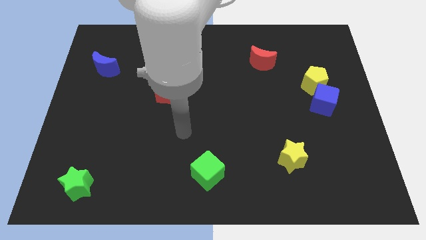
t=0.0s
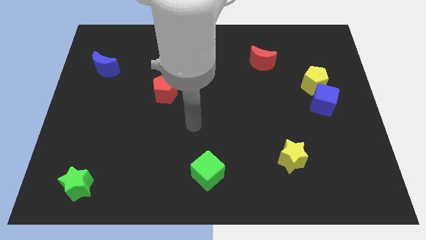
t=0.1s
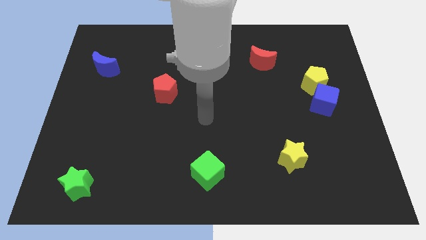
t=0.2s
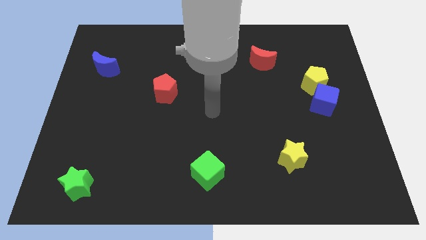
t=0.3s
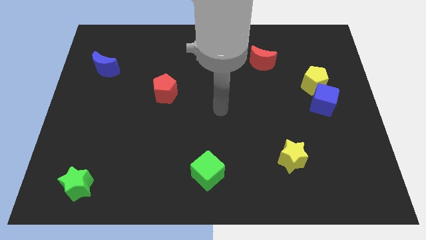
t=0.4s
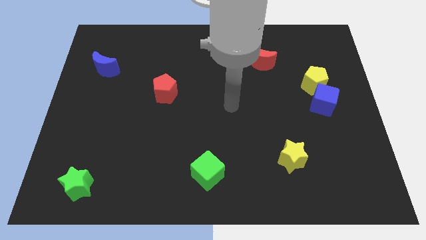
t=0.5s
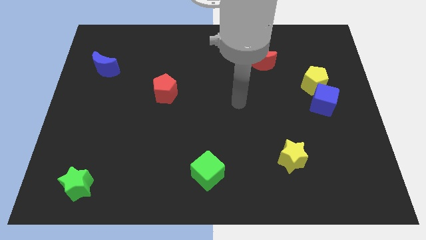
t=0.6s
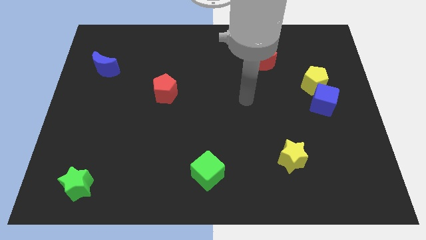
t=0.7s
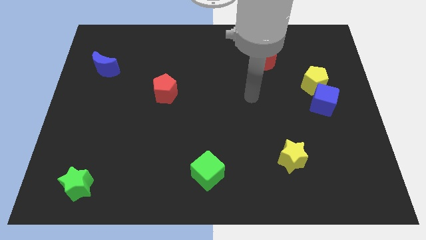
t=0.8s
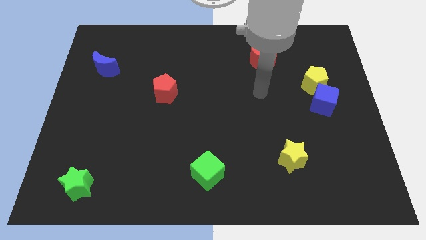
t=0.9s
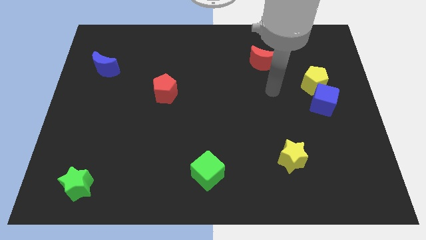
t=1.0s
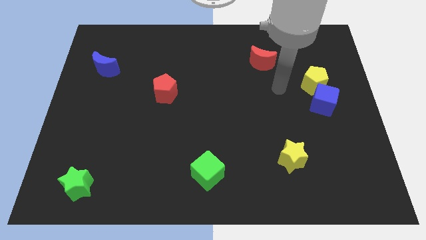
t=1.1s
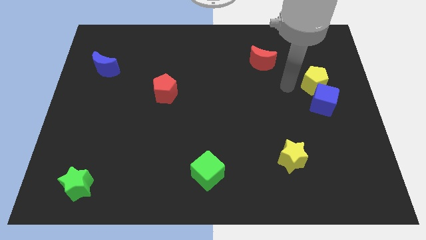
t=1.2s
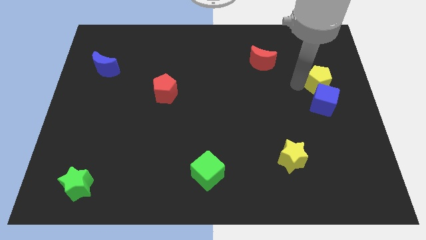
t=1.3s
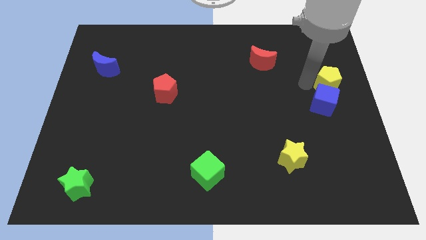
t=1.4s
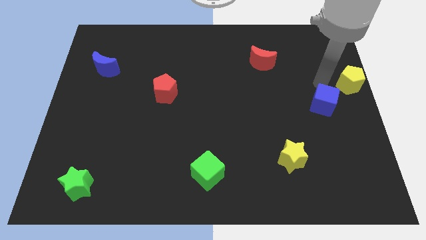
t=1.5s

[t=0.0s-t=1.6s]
pull the blue cube apart from the yellow pentagon

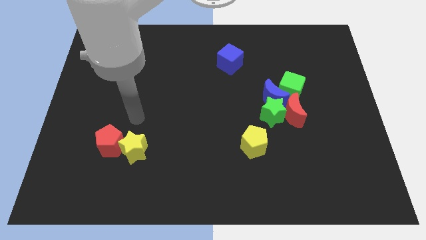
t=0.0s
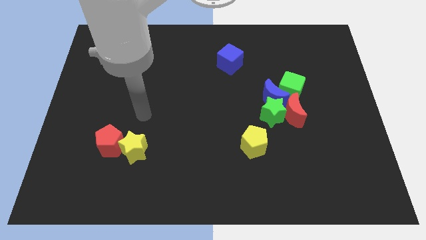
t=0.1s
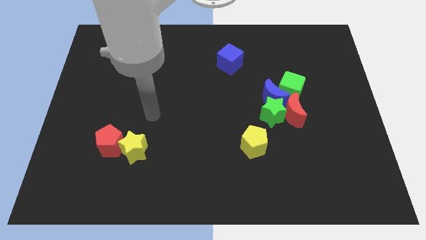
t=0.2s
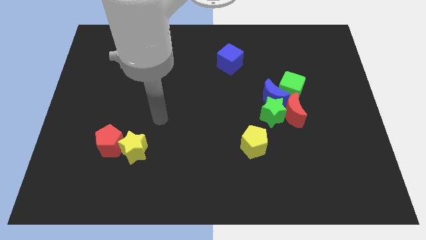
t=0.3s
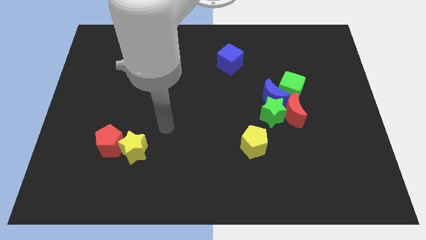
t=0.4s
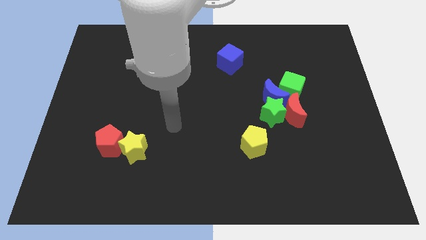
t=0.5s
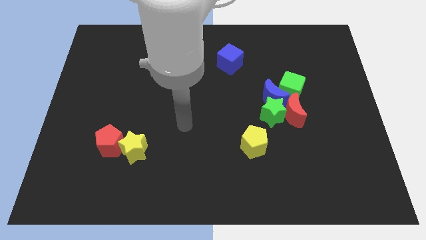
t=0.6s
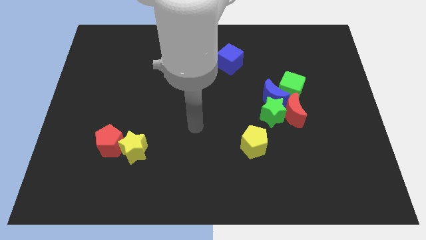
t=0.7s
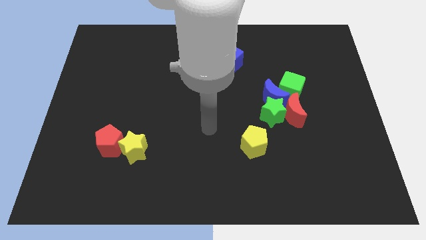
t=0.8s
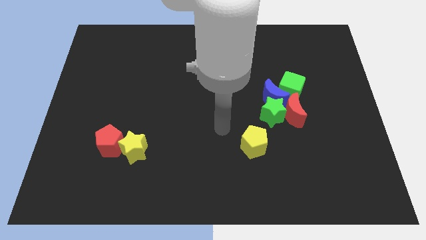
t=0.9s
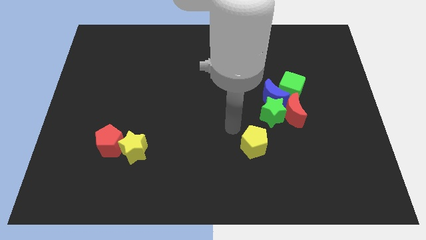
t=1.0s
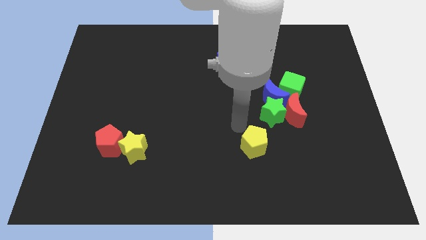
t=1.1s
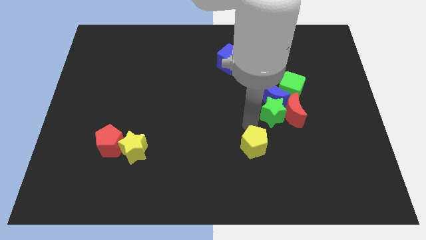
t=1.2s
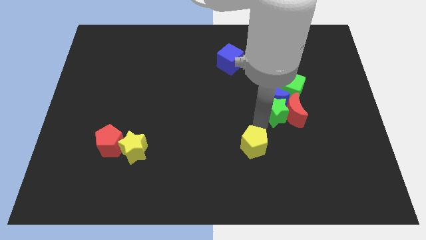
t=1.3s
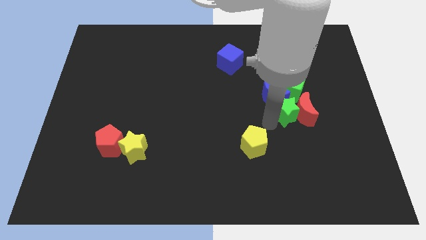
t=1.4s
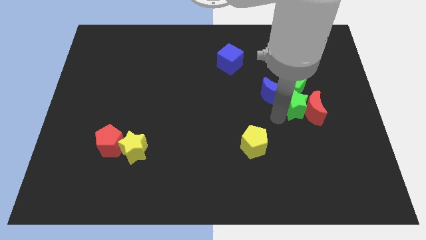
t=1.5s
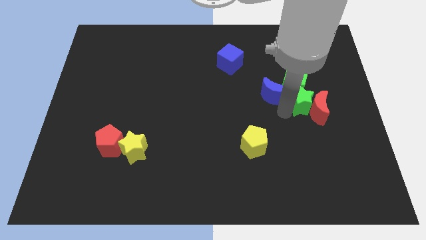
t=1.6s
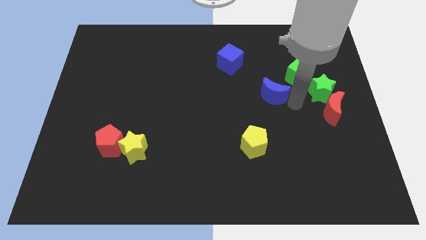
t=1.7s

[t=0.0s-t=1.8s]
separate the blue moon from the green star, green cube, and red moon

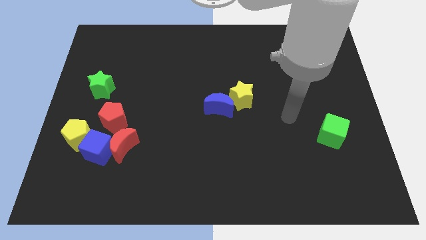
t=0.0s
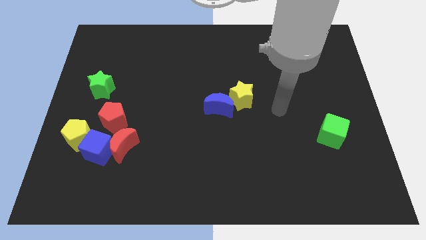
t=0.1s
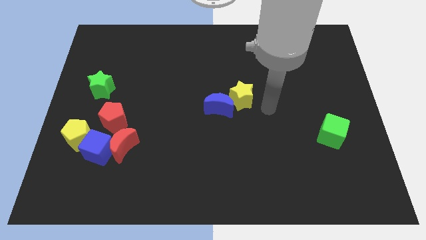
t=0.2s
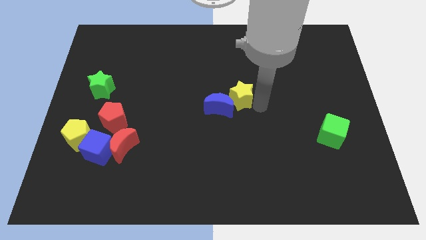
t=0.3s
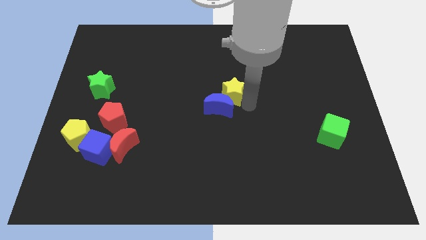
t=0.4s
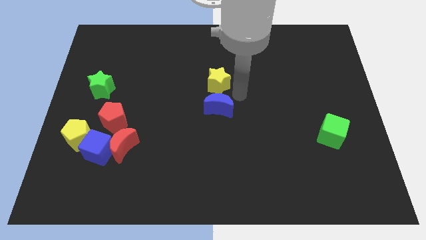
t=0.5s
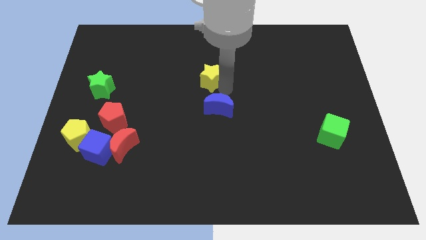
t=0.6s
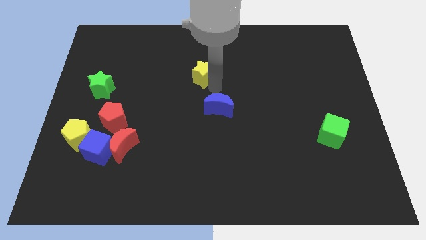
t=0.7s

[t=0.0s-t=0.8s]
move the blue moon away from the yellow star

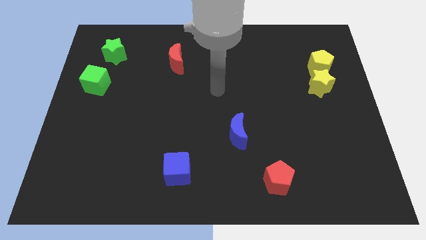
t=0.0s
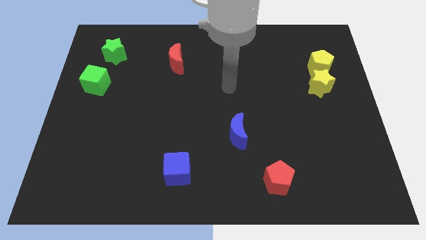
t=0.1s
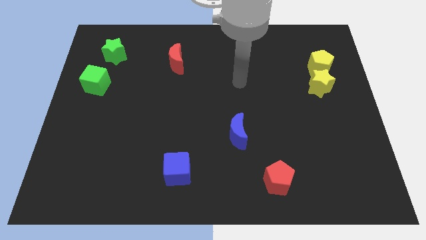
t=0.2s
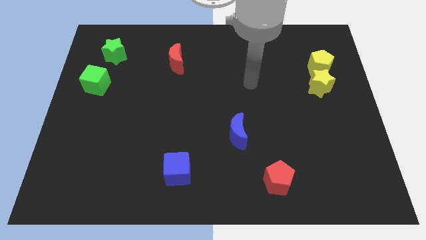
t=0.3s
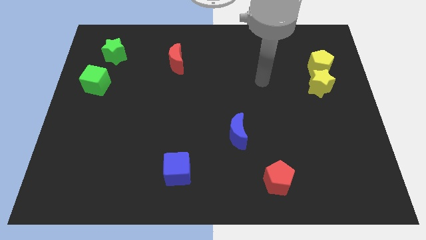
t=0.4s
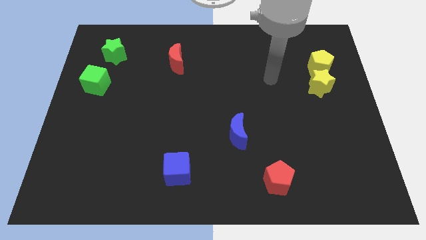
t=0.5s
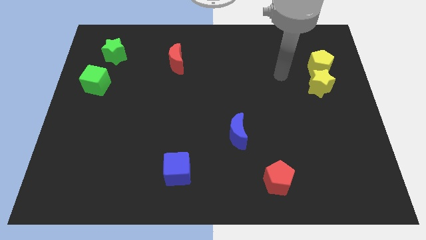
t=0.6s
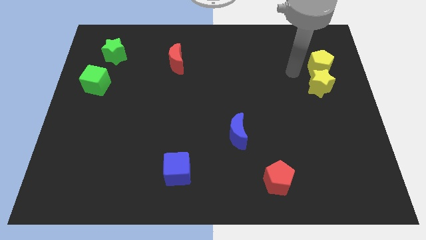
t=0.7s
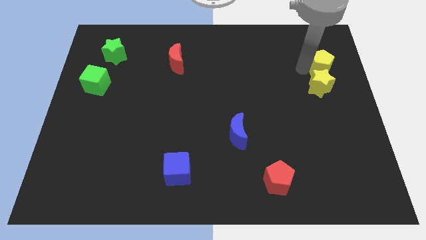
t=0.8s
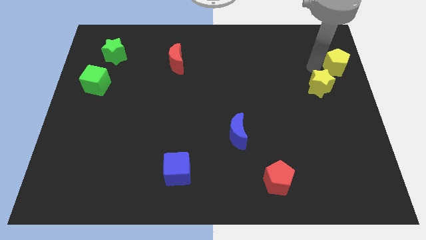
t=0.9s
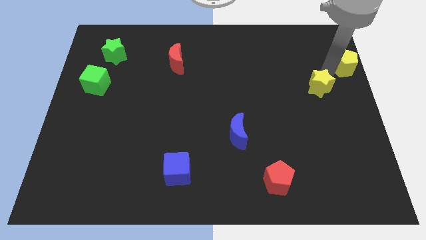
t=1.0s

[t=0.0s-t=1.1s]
separate the yellow star from the yellow pentagon

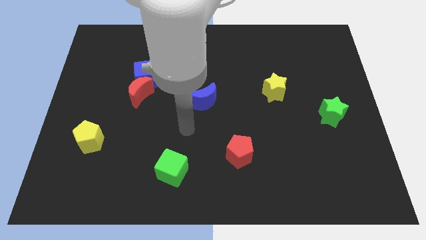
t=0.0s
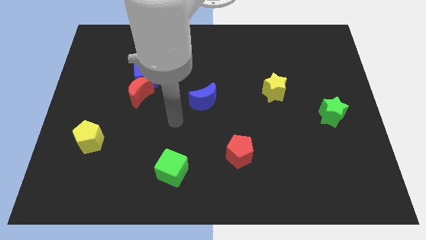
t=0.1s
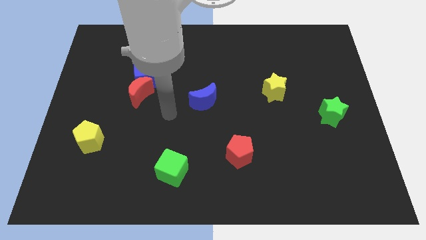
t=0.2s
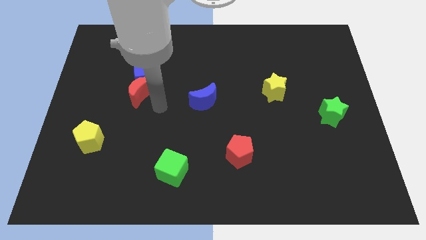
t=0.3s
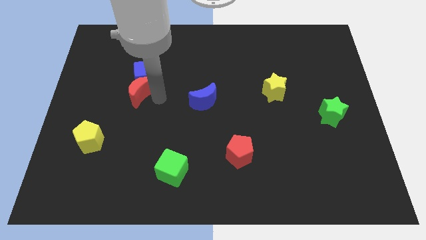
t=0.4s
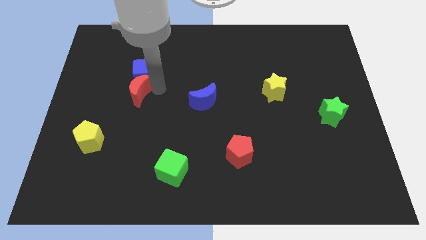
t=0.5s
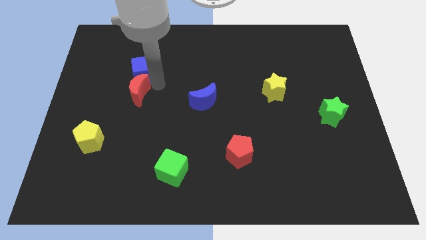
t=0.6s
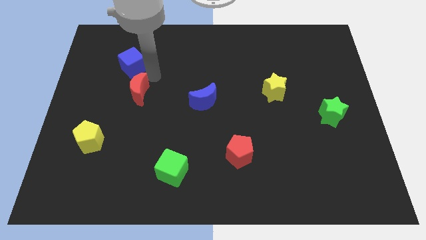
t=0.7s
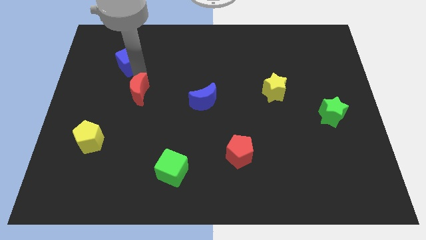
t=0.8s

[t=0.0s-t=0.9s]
separate the red moon from the blue cube

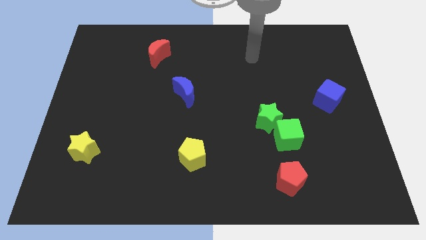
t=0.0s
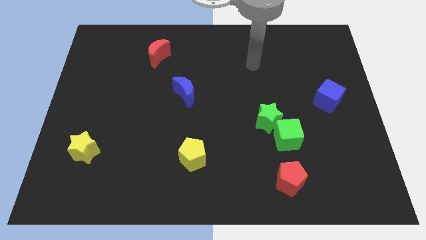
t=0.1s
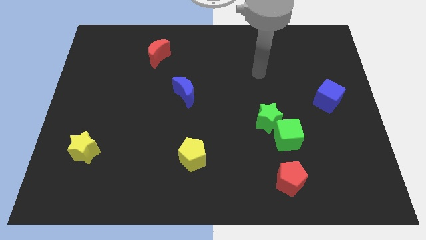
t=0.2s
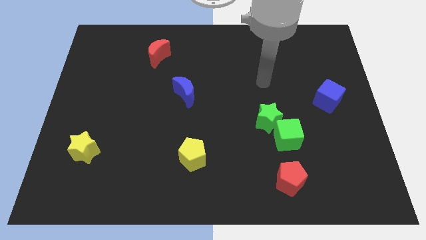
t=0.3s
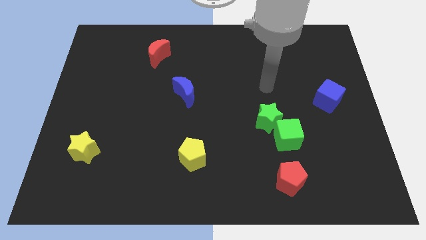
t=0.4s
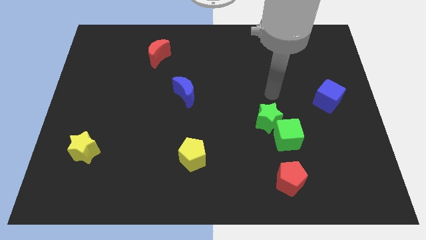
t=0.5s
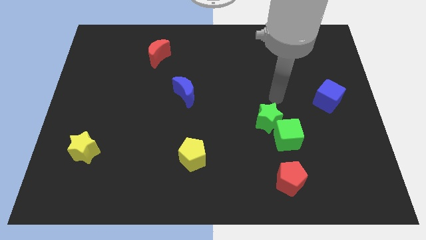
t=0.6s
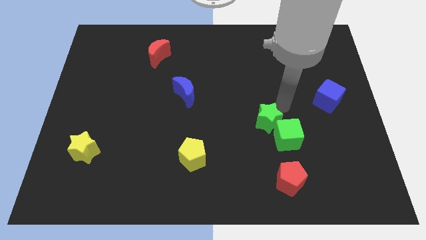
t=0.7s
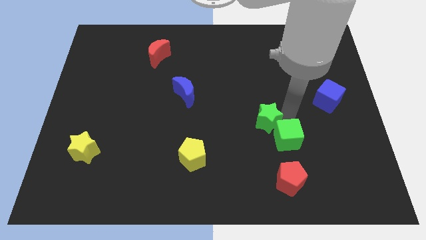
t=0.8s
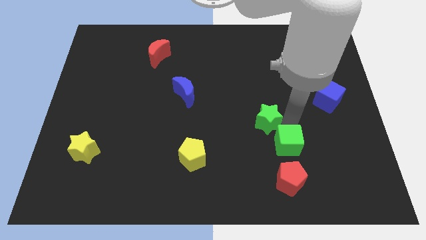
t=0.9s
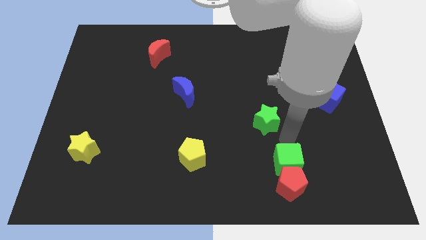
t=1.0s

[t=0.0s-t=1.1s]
separate the green star from the green cube

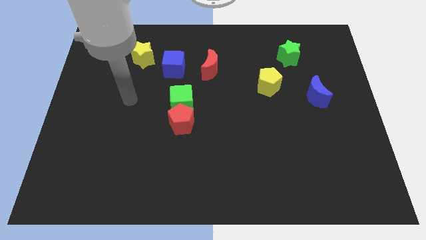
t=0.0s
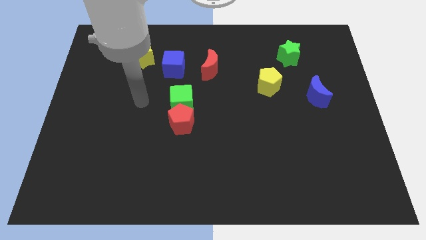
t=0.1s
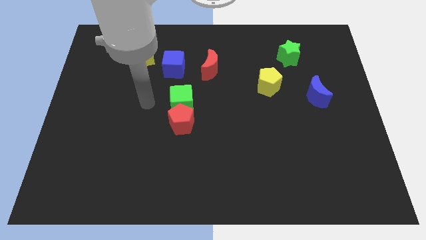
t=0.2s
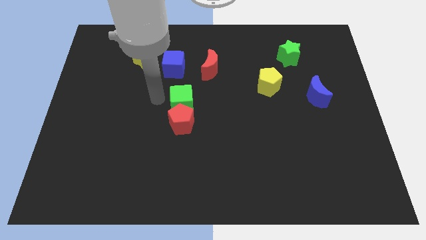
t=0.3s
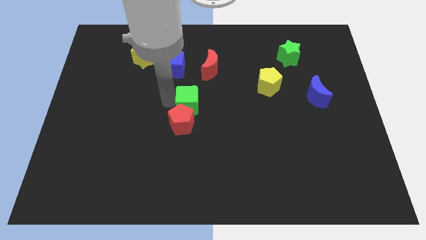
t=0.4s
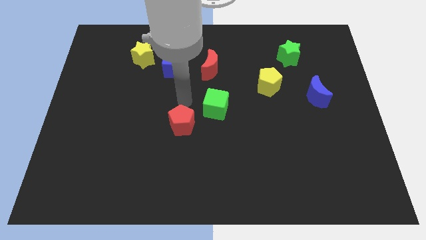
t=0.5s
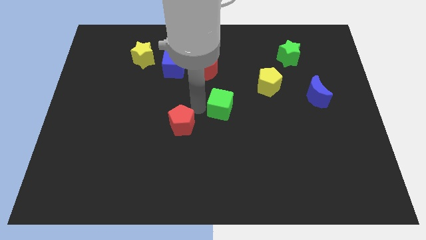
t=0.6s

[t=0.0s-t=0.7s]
move the red pentagon away from the green cube

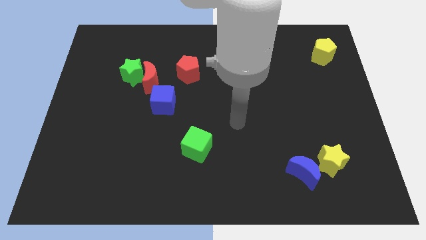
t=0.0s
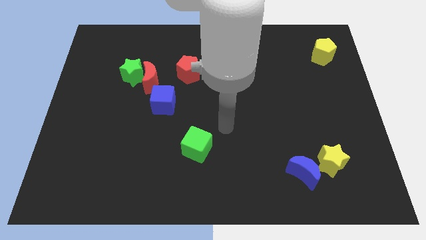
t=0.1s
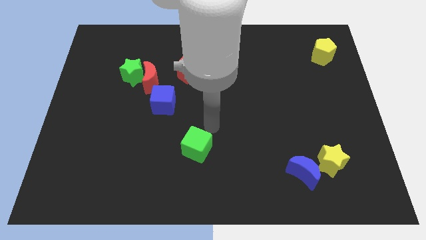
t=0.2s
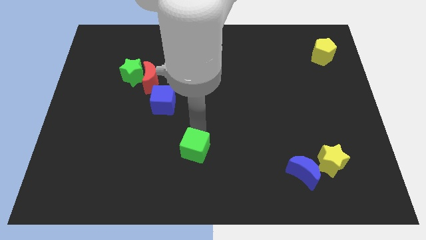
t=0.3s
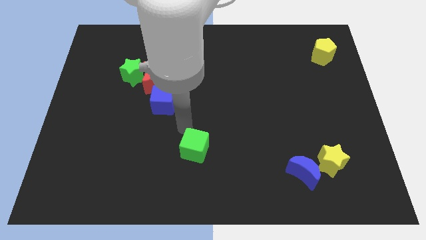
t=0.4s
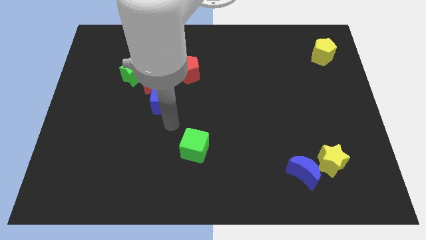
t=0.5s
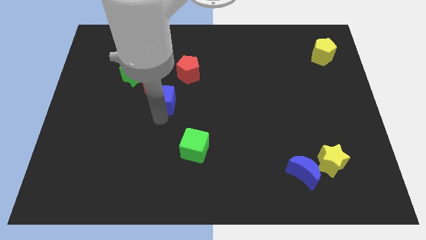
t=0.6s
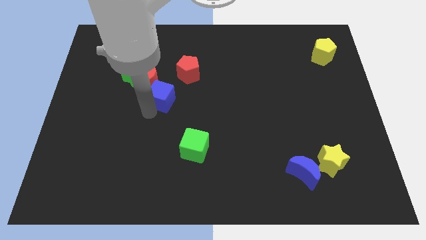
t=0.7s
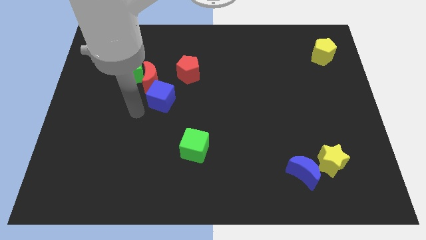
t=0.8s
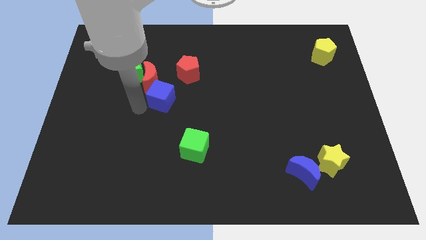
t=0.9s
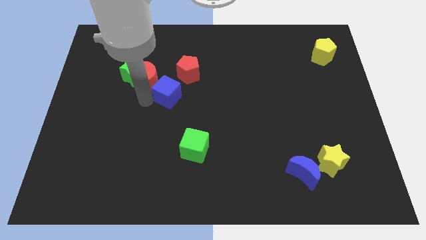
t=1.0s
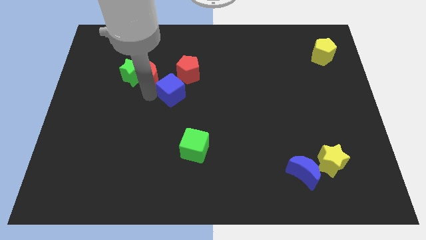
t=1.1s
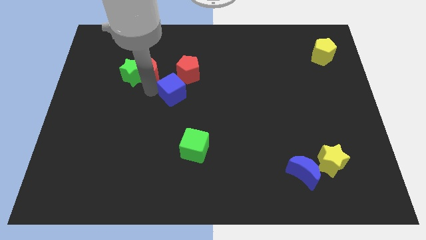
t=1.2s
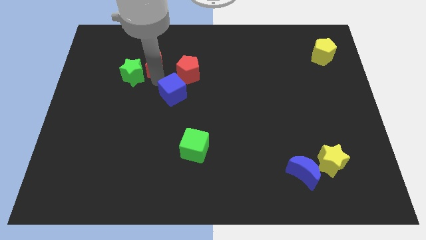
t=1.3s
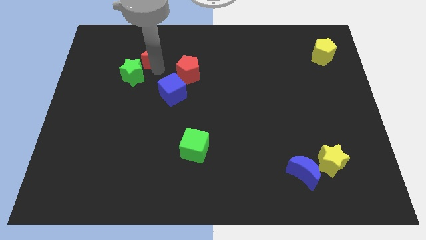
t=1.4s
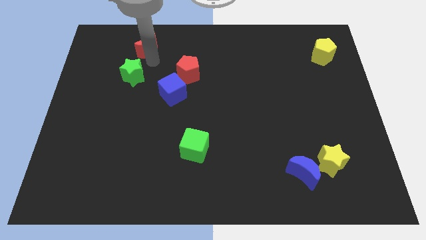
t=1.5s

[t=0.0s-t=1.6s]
pull the green star apart from the red moon
